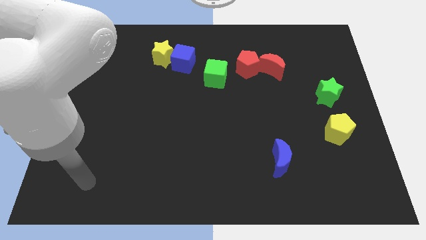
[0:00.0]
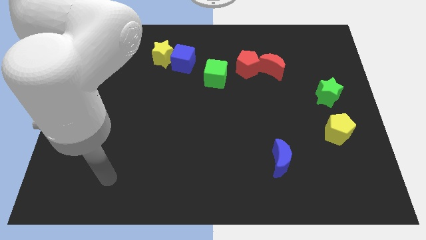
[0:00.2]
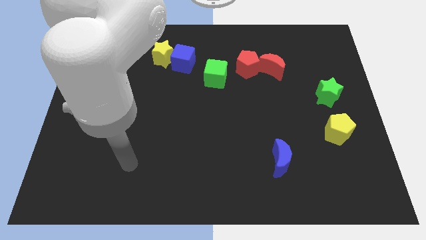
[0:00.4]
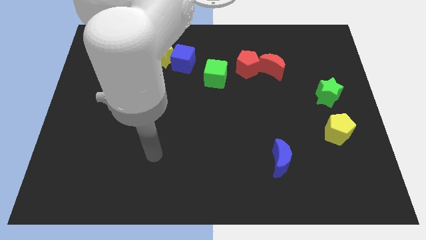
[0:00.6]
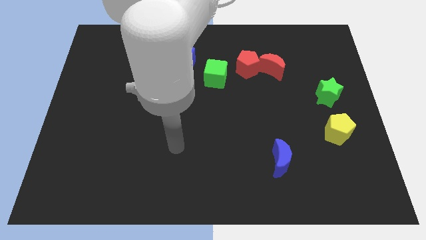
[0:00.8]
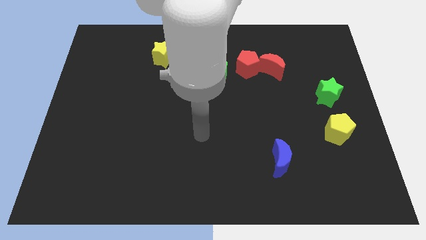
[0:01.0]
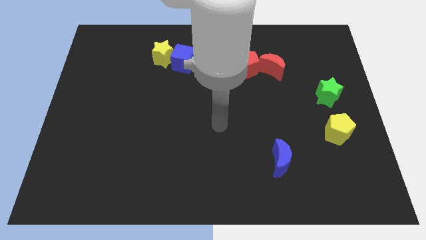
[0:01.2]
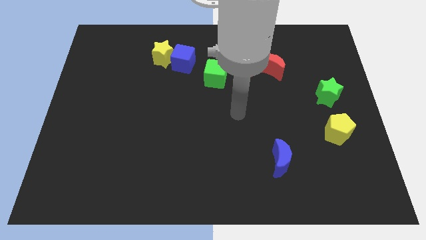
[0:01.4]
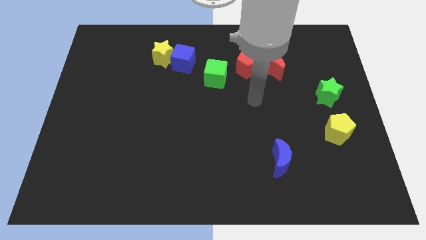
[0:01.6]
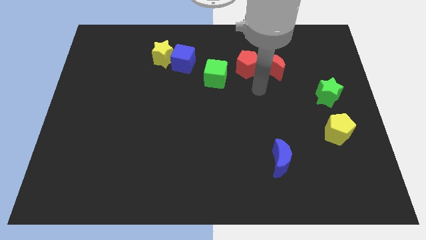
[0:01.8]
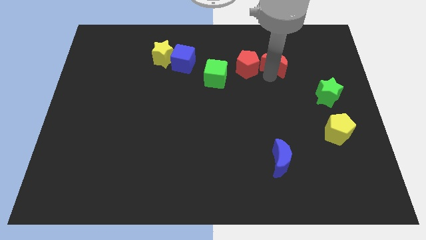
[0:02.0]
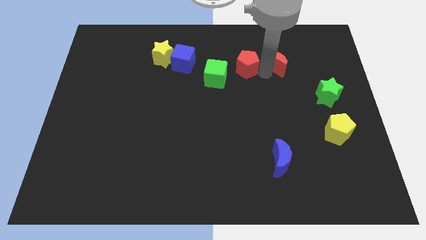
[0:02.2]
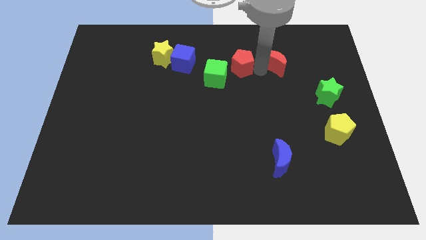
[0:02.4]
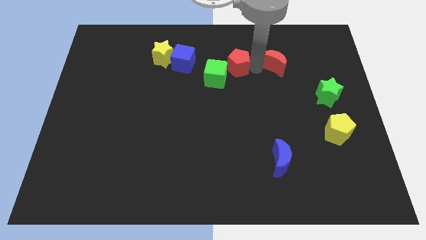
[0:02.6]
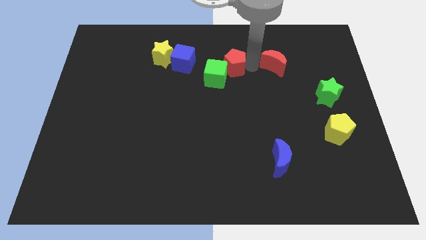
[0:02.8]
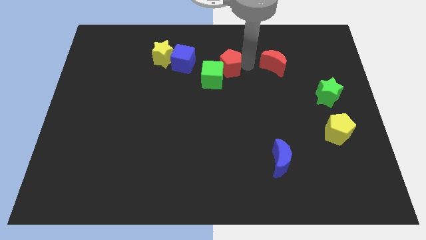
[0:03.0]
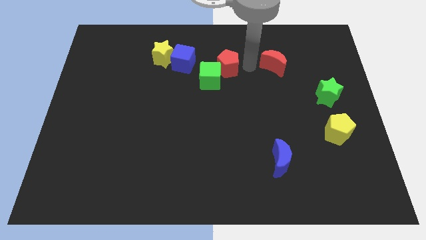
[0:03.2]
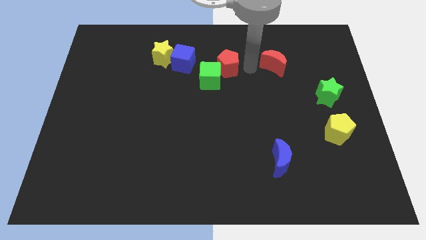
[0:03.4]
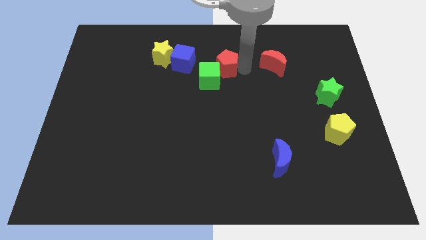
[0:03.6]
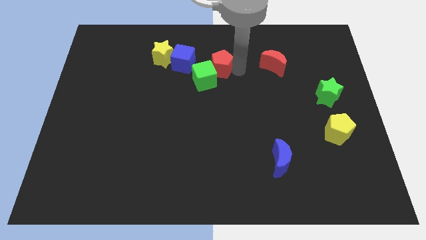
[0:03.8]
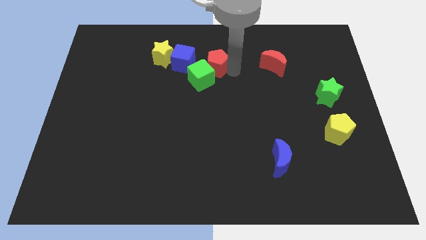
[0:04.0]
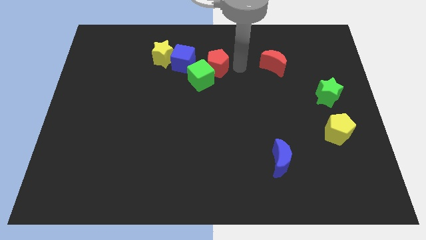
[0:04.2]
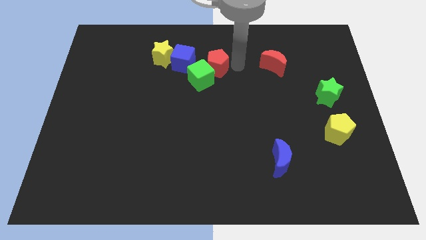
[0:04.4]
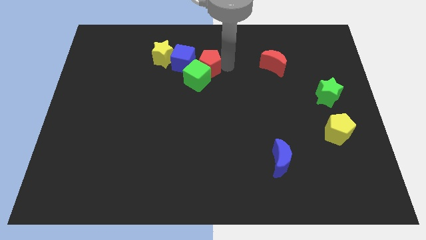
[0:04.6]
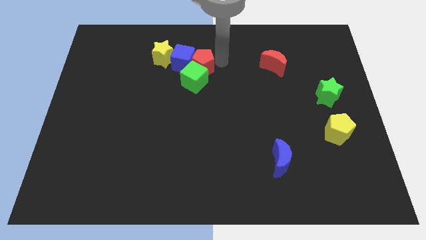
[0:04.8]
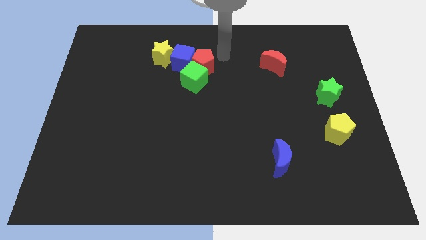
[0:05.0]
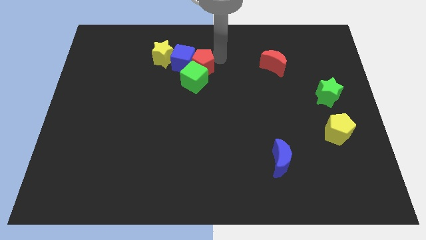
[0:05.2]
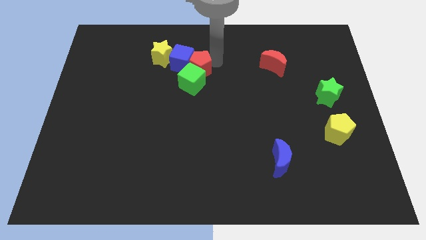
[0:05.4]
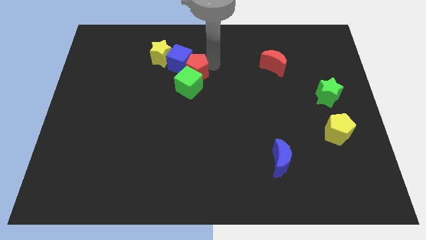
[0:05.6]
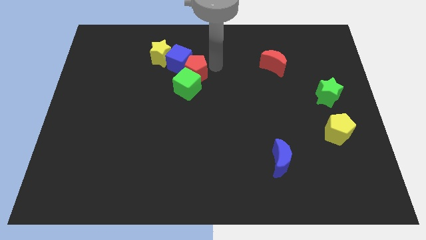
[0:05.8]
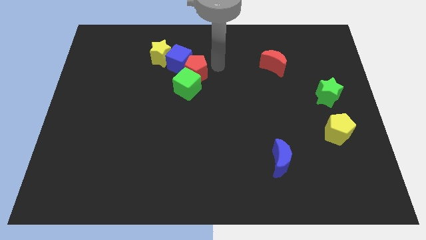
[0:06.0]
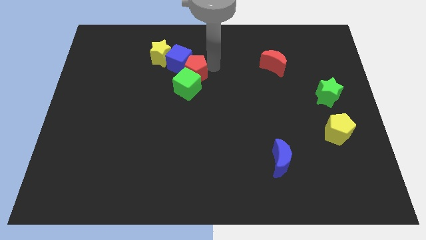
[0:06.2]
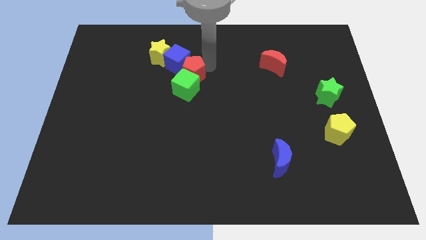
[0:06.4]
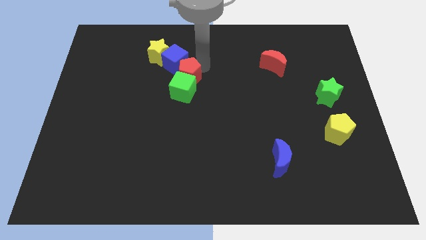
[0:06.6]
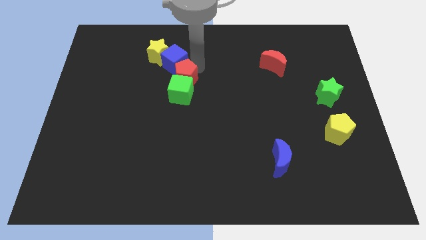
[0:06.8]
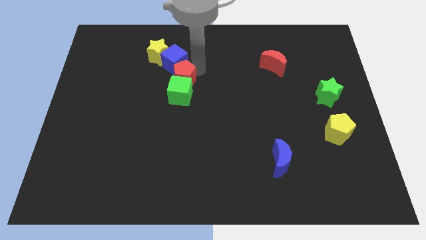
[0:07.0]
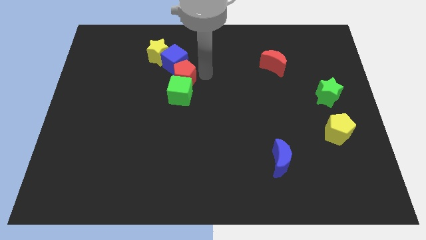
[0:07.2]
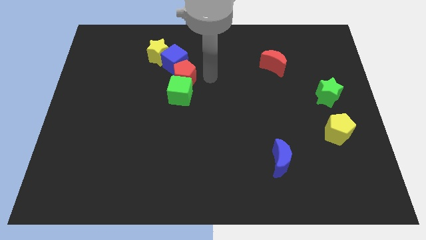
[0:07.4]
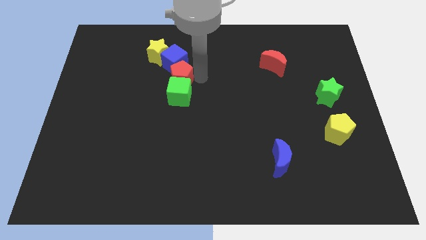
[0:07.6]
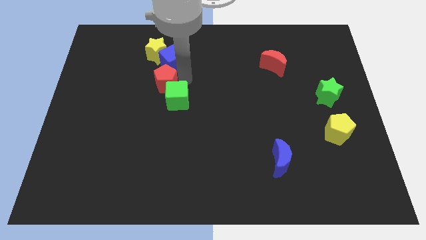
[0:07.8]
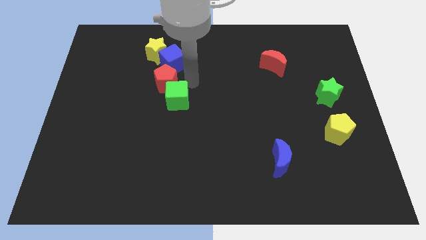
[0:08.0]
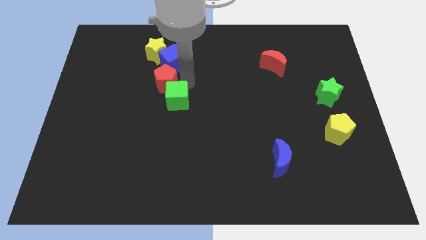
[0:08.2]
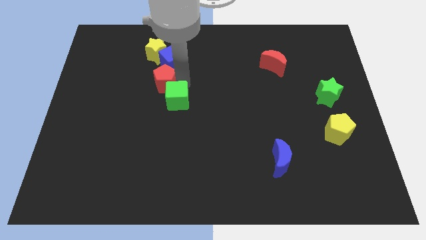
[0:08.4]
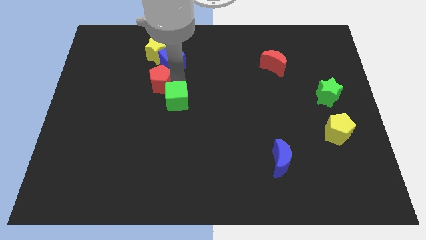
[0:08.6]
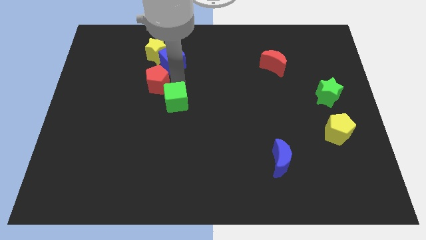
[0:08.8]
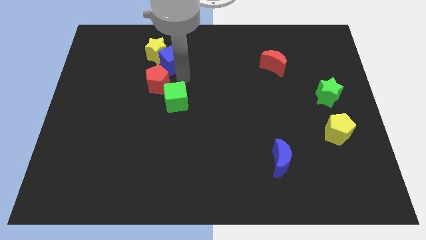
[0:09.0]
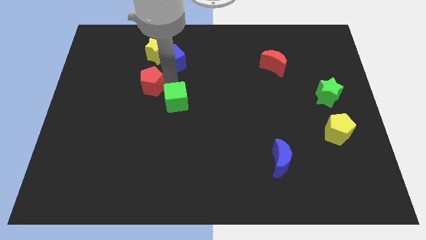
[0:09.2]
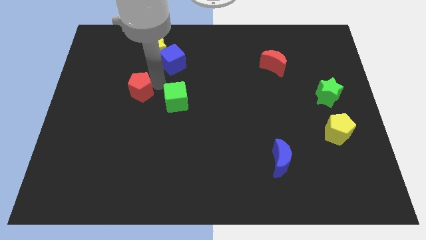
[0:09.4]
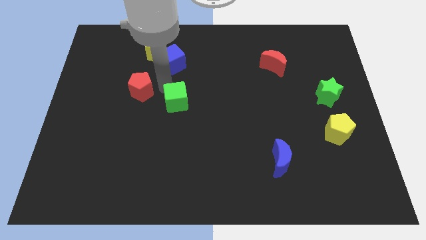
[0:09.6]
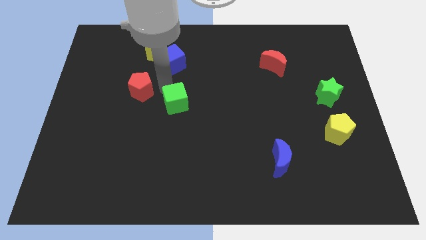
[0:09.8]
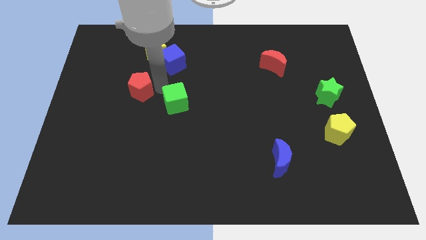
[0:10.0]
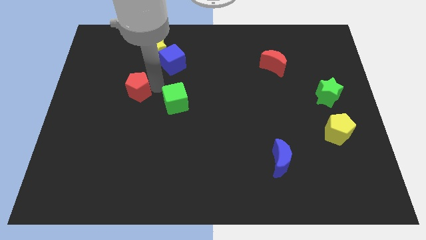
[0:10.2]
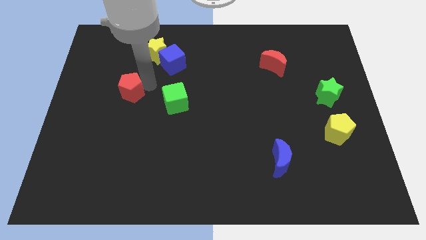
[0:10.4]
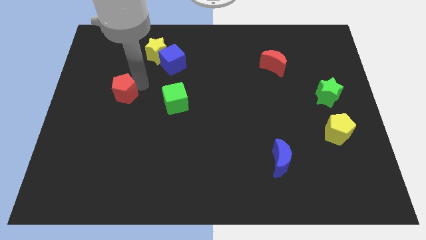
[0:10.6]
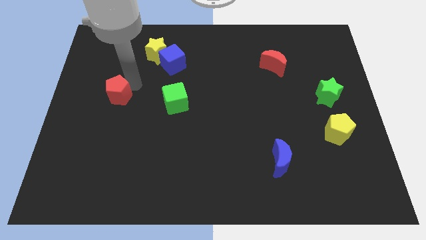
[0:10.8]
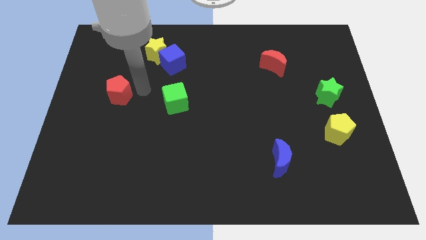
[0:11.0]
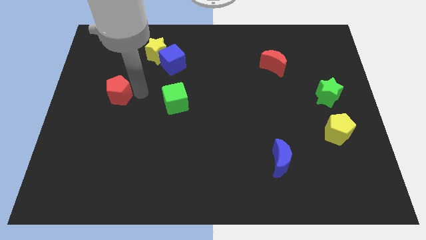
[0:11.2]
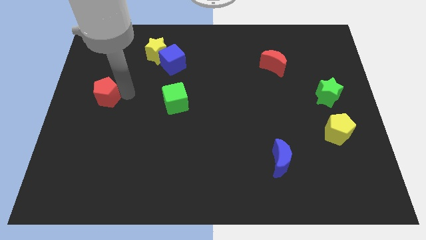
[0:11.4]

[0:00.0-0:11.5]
move the red pentagon to the left side
